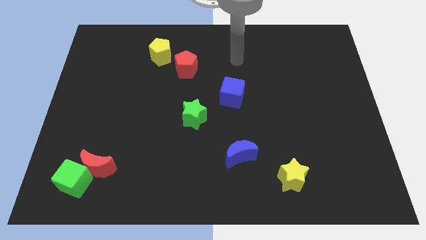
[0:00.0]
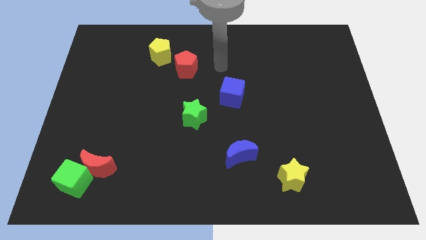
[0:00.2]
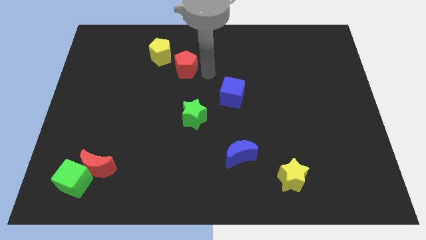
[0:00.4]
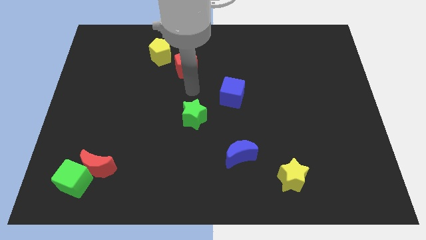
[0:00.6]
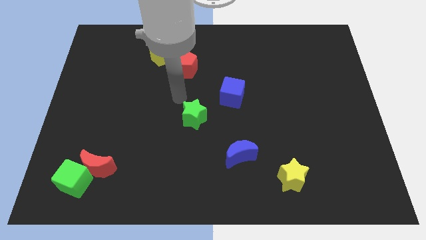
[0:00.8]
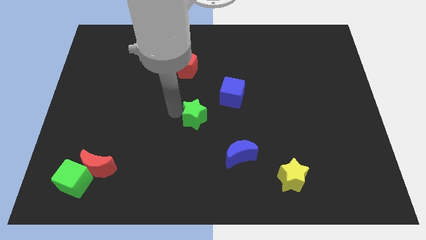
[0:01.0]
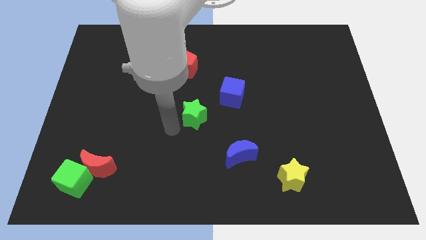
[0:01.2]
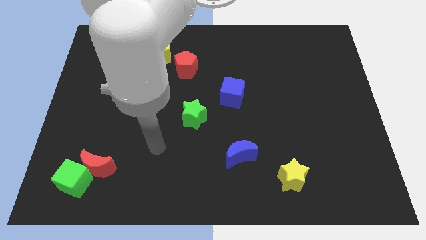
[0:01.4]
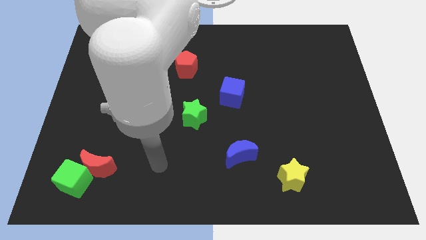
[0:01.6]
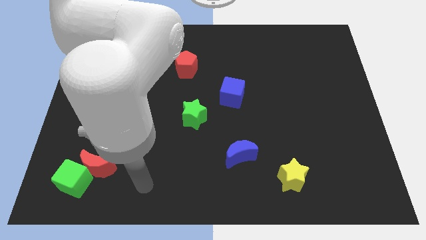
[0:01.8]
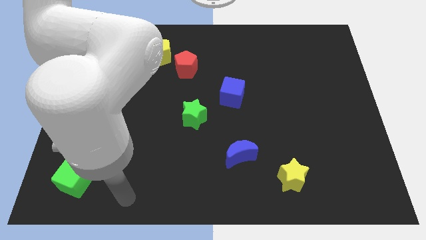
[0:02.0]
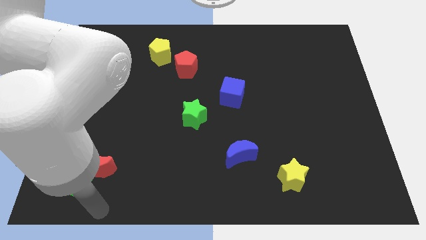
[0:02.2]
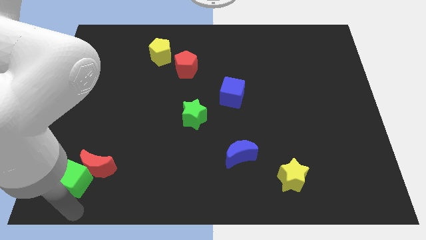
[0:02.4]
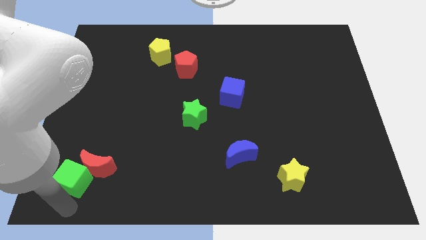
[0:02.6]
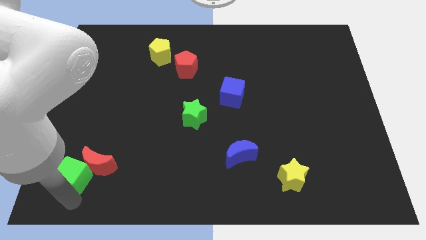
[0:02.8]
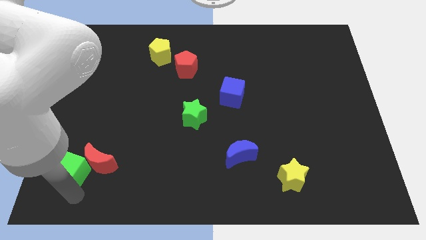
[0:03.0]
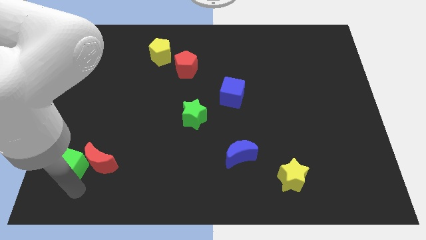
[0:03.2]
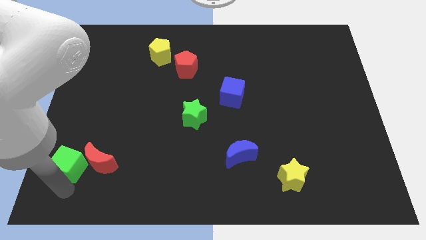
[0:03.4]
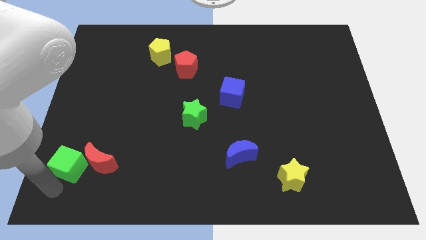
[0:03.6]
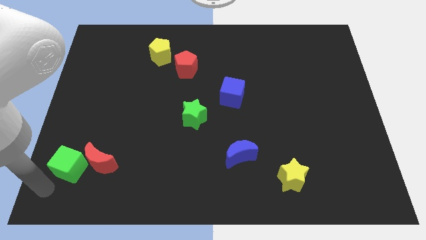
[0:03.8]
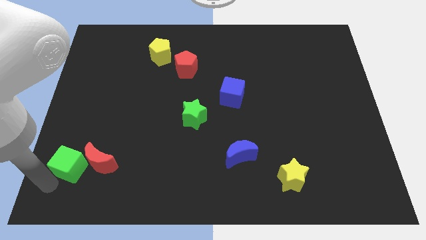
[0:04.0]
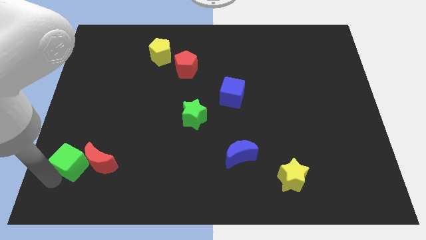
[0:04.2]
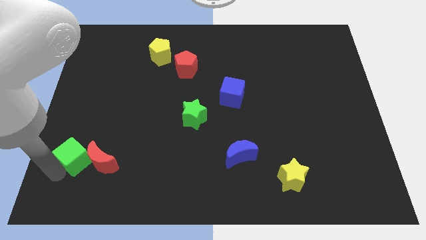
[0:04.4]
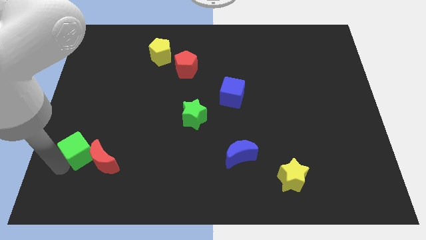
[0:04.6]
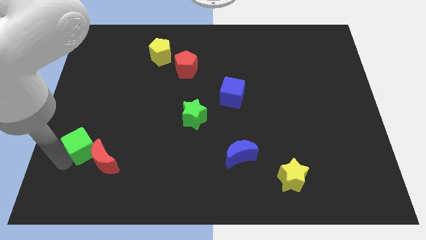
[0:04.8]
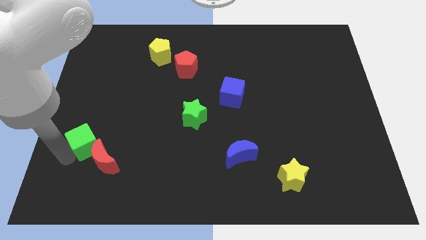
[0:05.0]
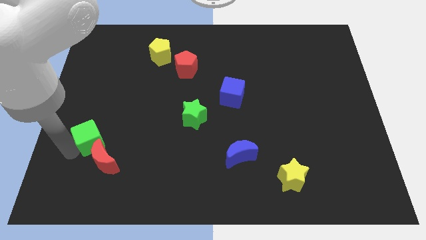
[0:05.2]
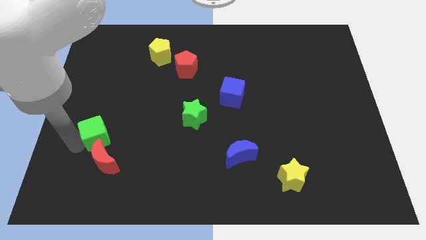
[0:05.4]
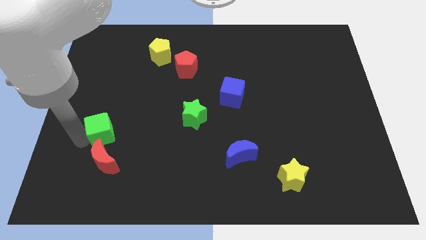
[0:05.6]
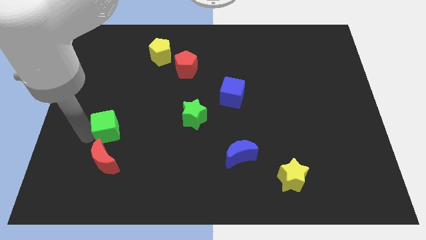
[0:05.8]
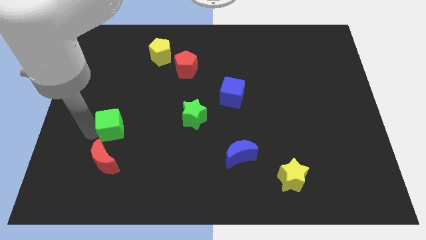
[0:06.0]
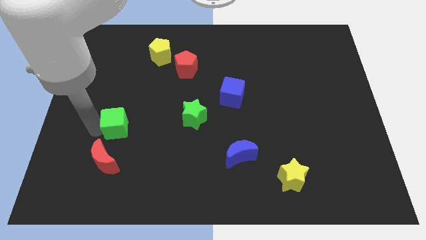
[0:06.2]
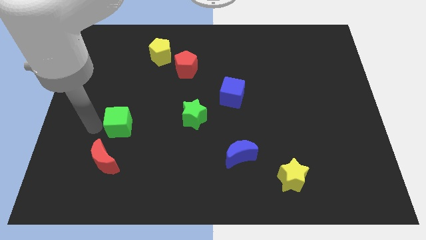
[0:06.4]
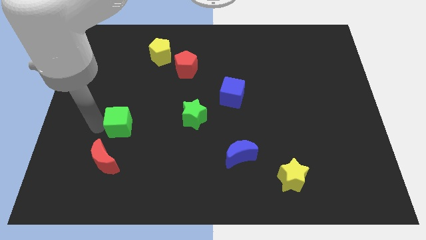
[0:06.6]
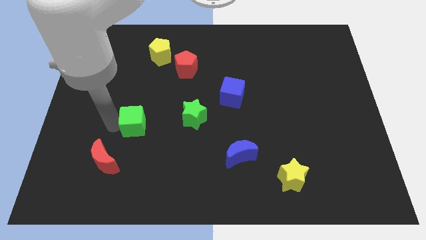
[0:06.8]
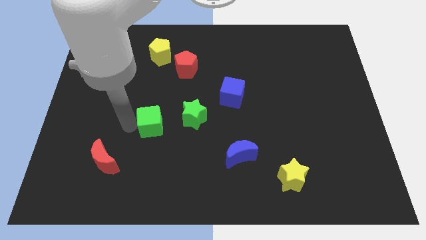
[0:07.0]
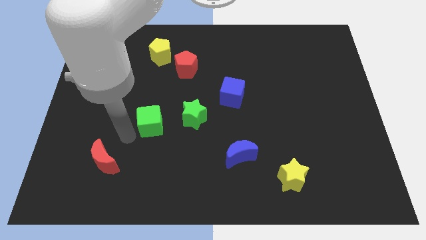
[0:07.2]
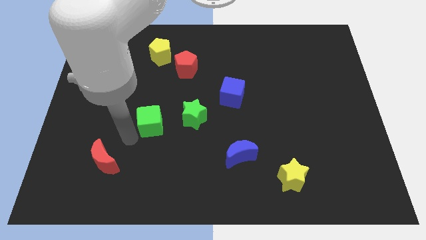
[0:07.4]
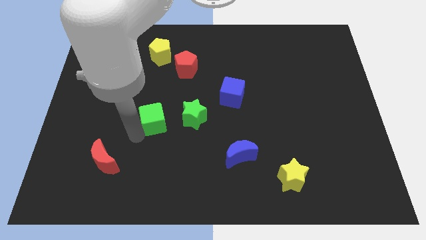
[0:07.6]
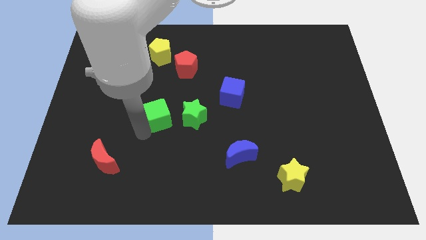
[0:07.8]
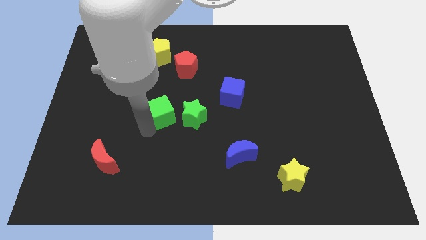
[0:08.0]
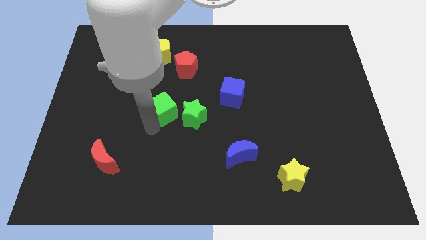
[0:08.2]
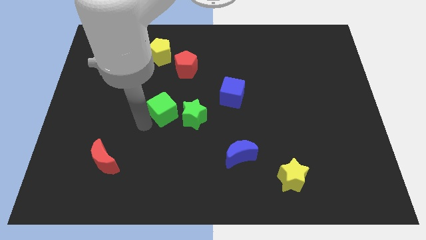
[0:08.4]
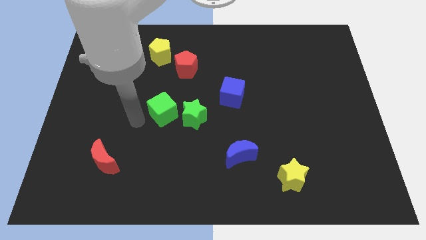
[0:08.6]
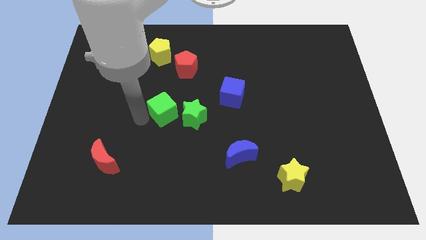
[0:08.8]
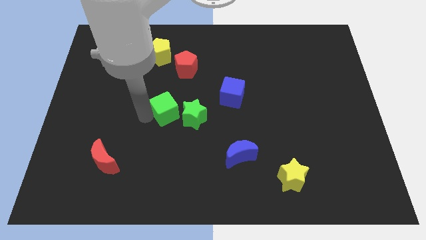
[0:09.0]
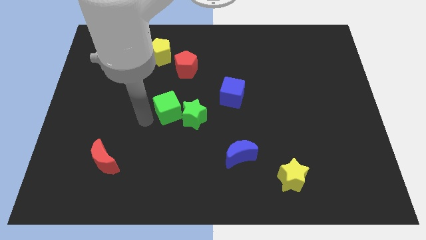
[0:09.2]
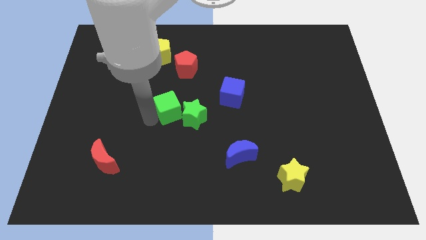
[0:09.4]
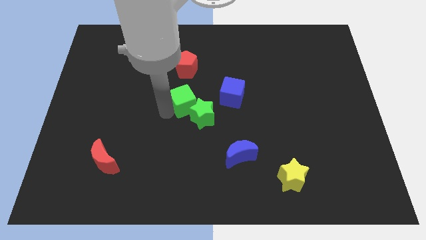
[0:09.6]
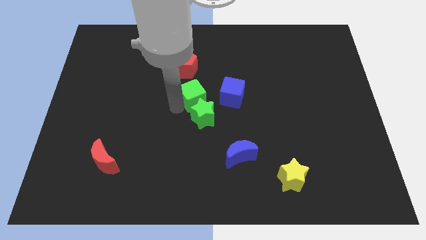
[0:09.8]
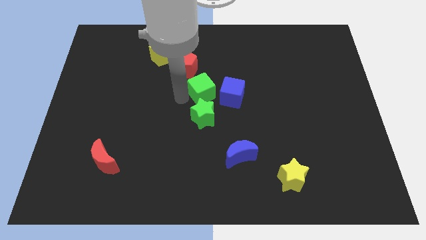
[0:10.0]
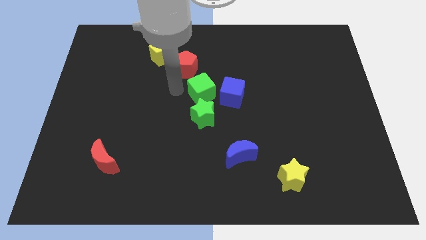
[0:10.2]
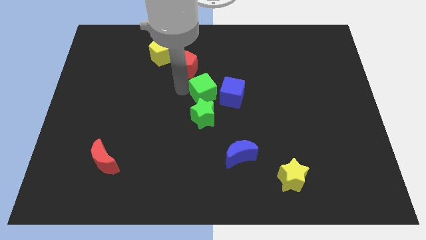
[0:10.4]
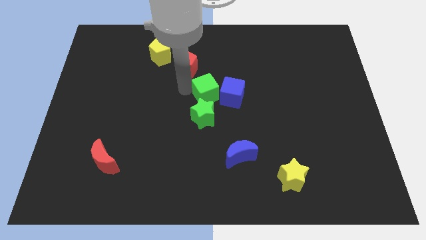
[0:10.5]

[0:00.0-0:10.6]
push the green cube close to the blue cube

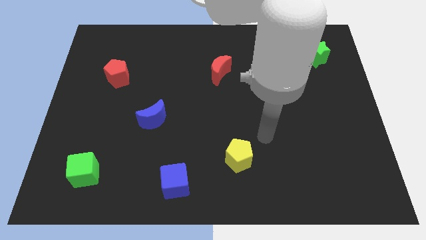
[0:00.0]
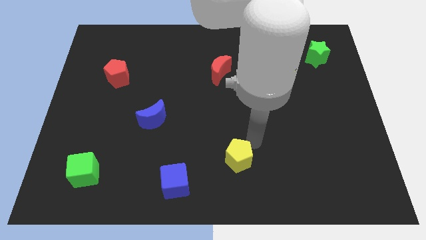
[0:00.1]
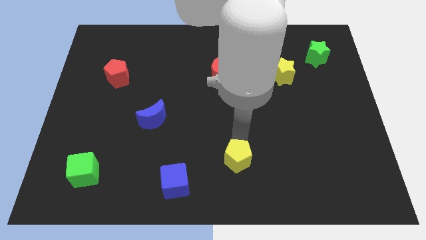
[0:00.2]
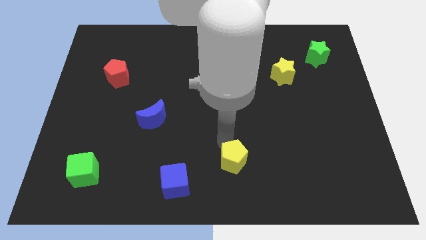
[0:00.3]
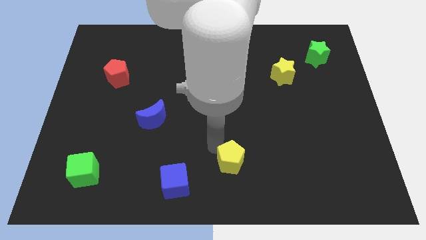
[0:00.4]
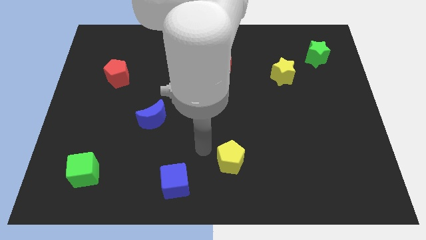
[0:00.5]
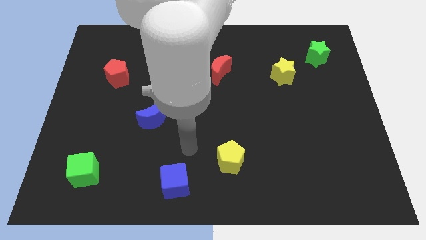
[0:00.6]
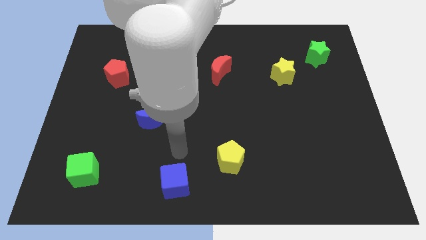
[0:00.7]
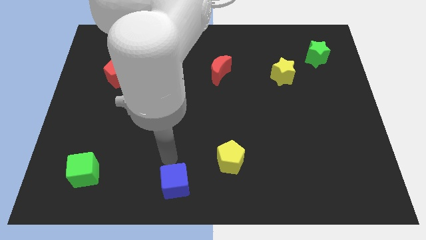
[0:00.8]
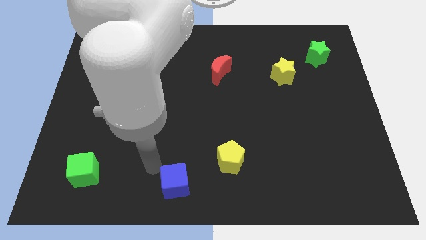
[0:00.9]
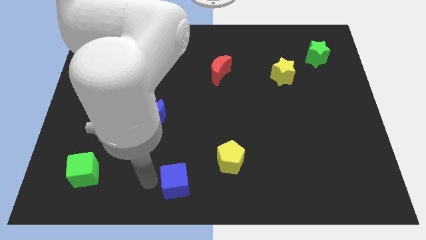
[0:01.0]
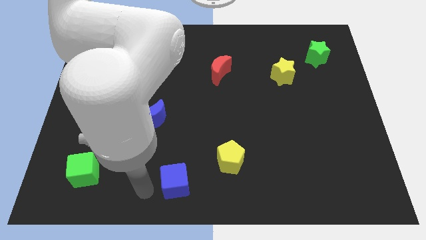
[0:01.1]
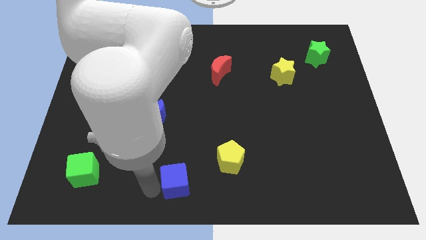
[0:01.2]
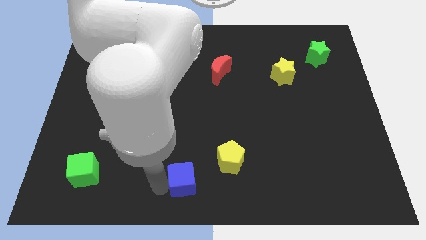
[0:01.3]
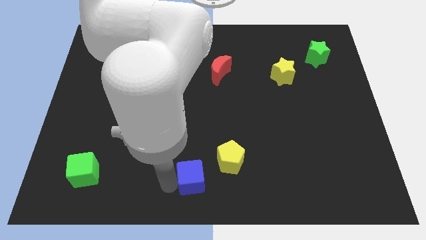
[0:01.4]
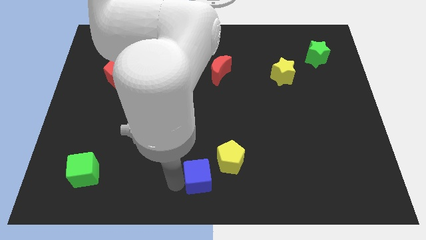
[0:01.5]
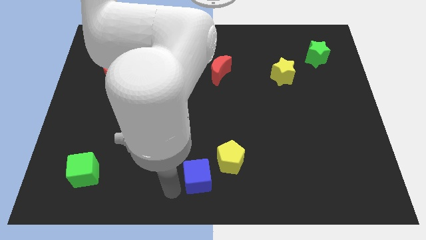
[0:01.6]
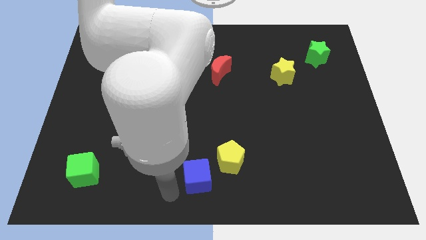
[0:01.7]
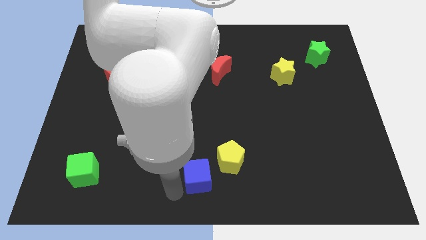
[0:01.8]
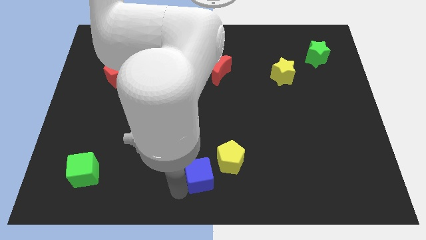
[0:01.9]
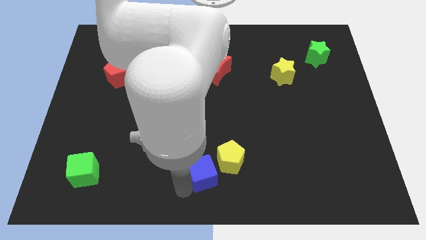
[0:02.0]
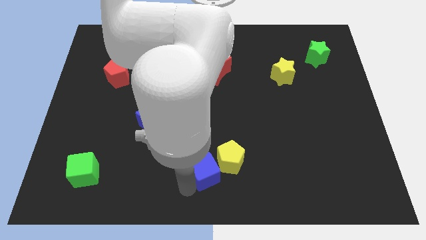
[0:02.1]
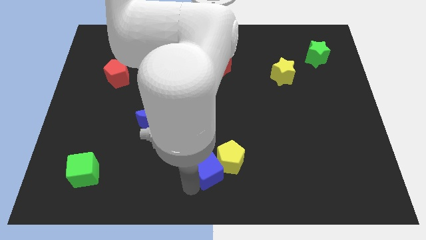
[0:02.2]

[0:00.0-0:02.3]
push the blue cube next to the yellow pentagon
